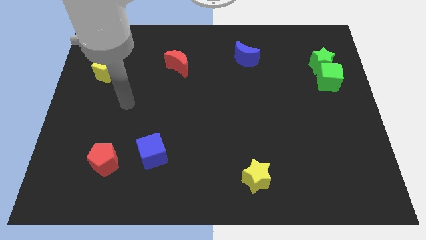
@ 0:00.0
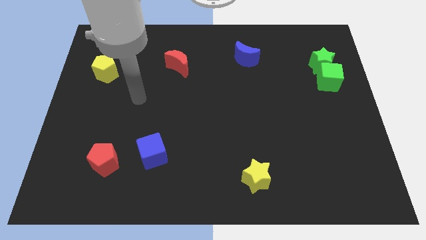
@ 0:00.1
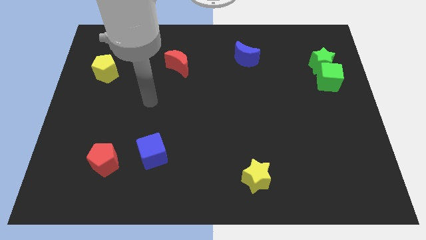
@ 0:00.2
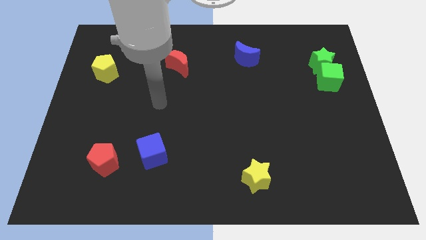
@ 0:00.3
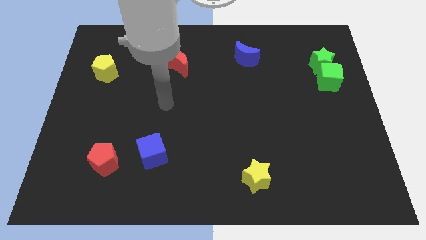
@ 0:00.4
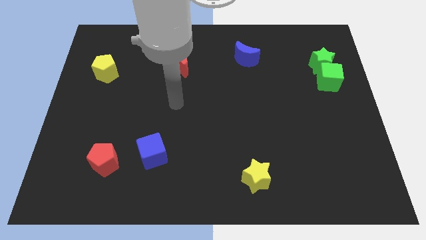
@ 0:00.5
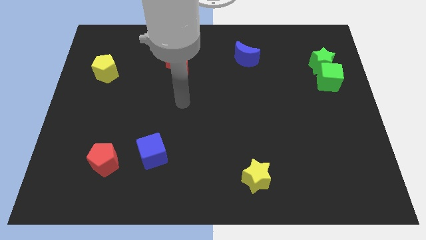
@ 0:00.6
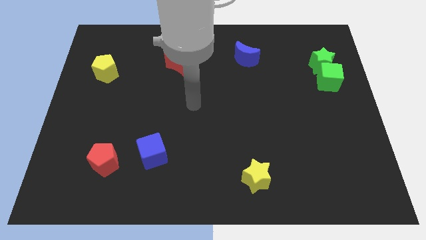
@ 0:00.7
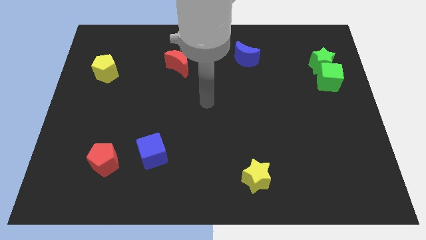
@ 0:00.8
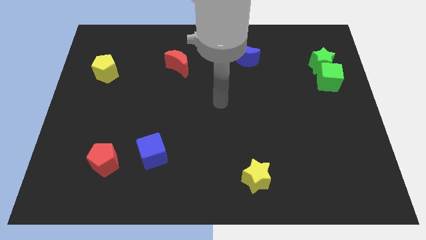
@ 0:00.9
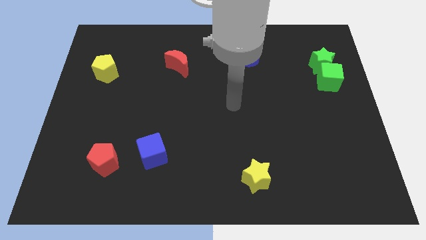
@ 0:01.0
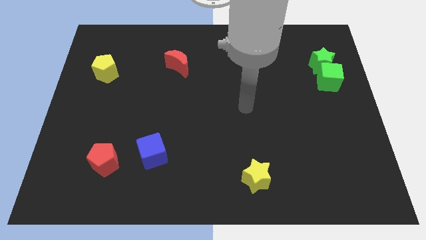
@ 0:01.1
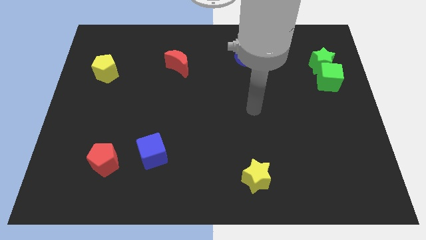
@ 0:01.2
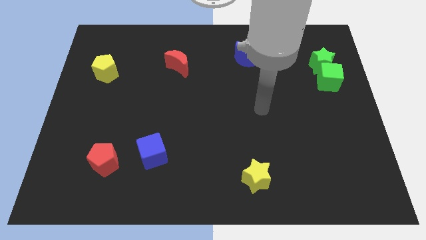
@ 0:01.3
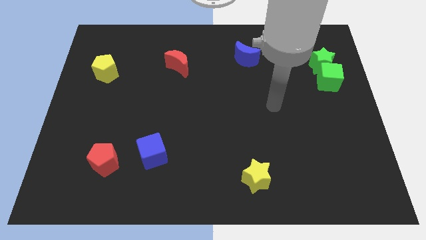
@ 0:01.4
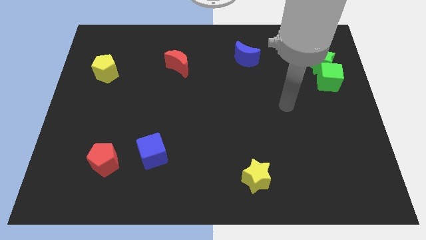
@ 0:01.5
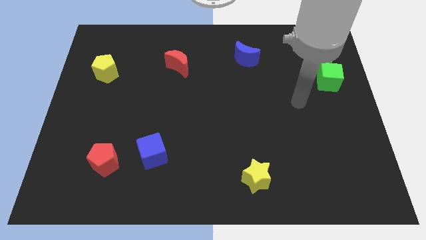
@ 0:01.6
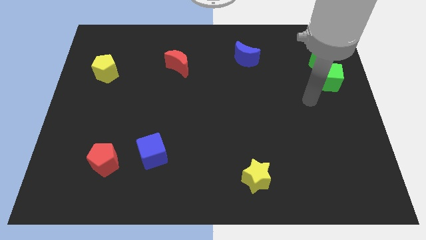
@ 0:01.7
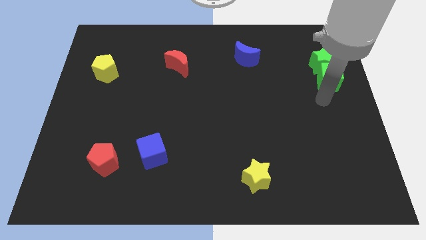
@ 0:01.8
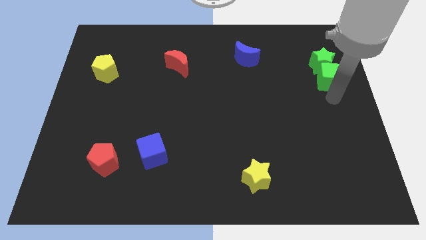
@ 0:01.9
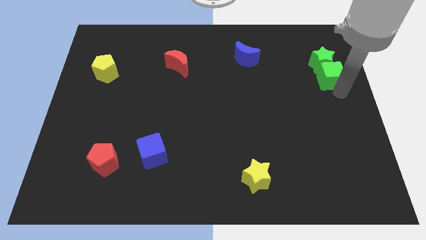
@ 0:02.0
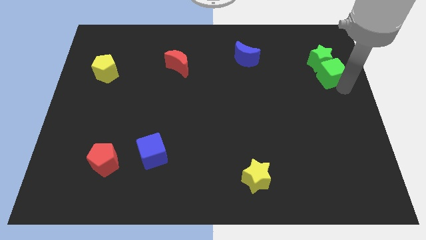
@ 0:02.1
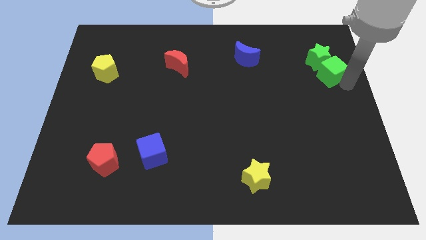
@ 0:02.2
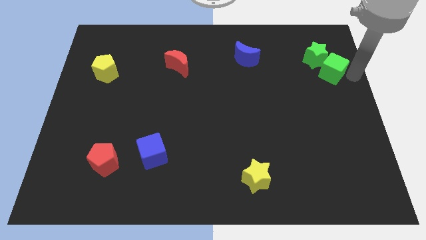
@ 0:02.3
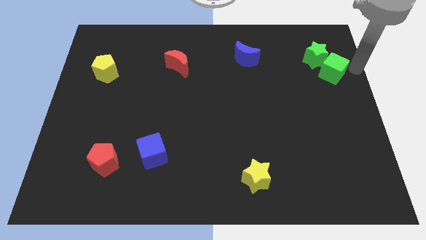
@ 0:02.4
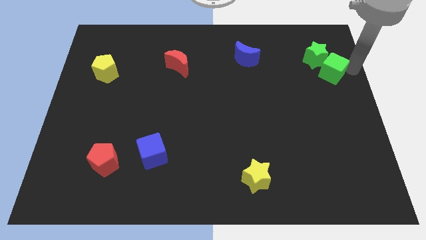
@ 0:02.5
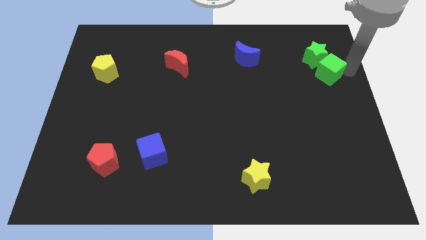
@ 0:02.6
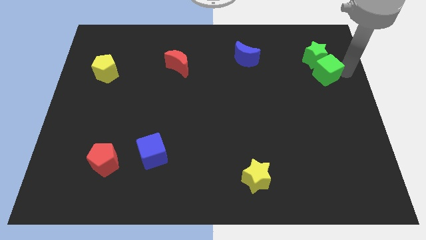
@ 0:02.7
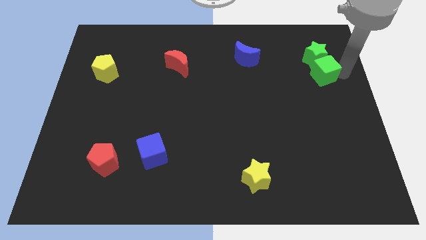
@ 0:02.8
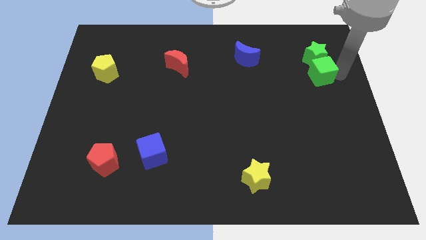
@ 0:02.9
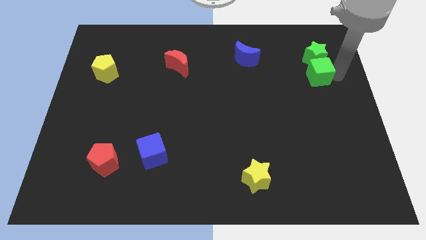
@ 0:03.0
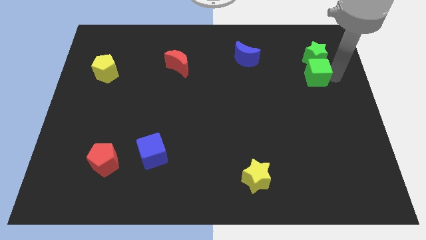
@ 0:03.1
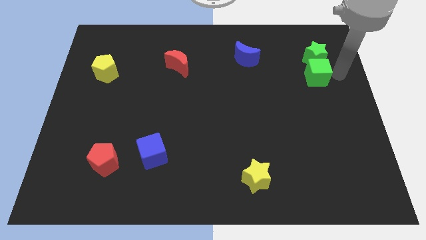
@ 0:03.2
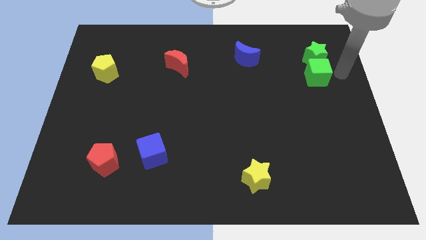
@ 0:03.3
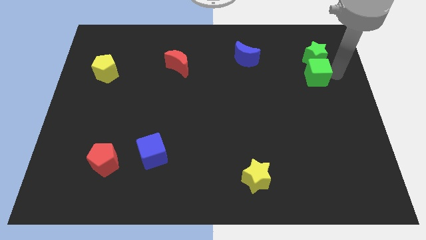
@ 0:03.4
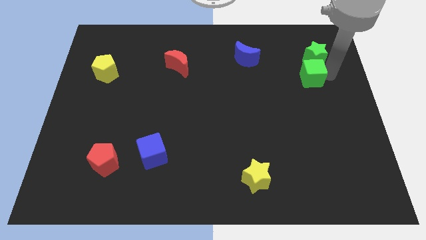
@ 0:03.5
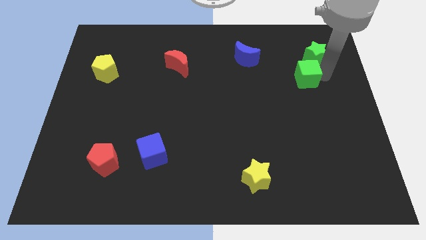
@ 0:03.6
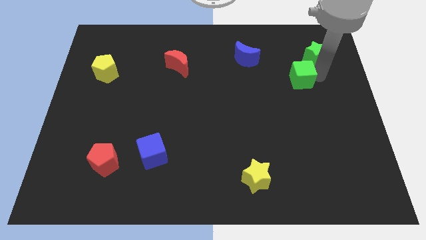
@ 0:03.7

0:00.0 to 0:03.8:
move the green cube left a bit

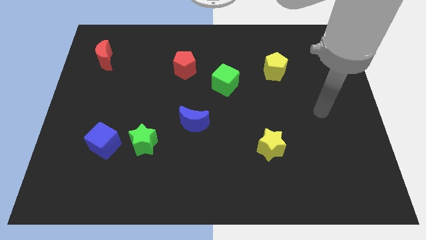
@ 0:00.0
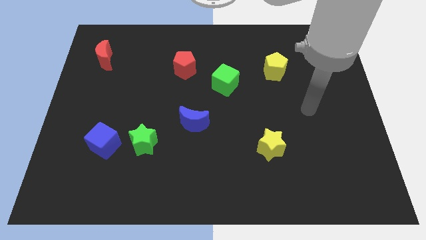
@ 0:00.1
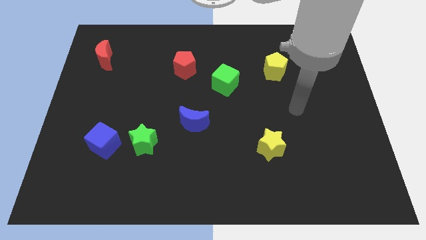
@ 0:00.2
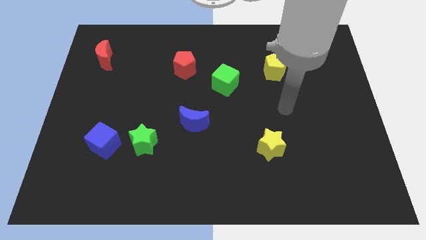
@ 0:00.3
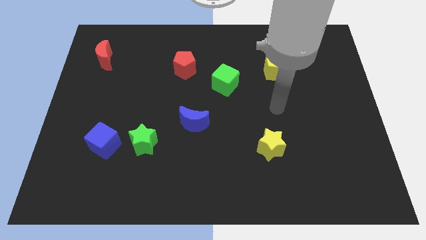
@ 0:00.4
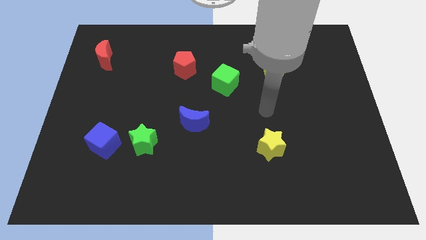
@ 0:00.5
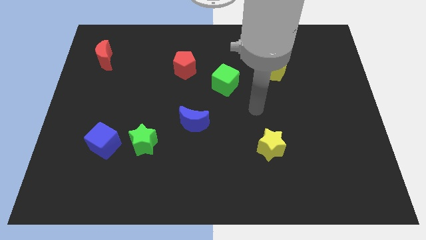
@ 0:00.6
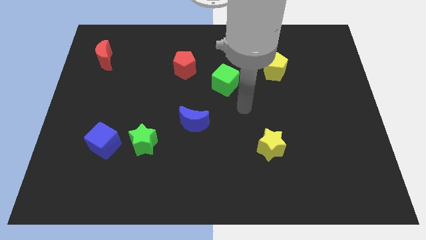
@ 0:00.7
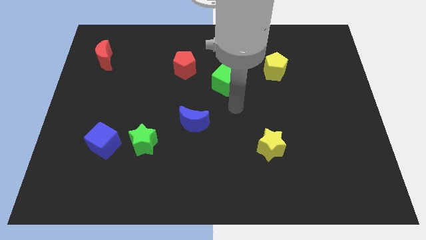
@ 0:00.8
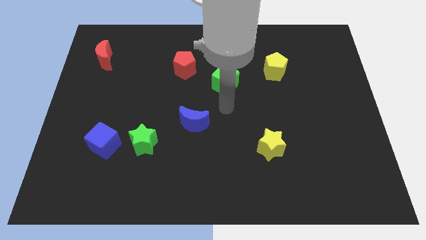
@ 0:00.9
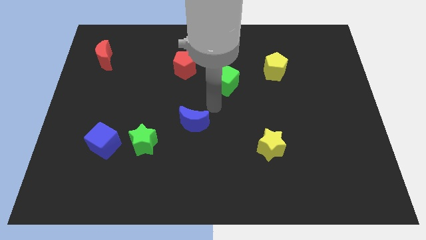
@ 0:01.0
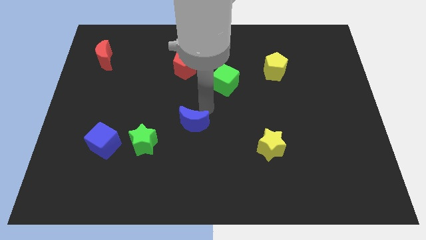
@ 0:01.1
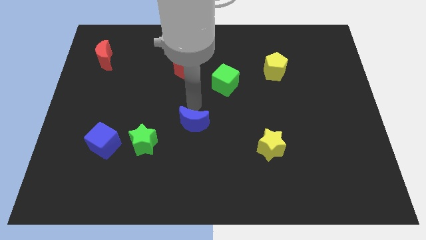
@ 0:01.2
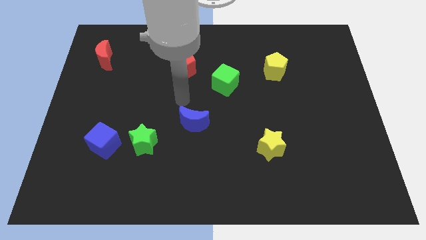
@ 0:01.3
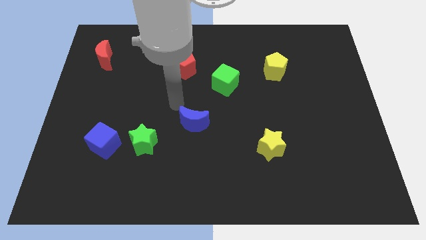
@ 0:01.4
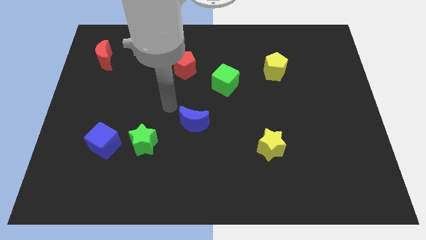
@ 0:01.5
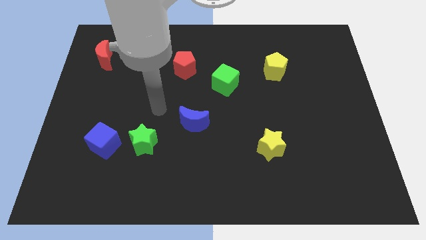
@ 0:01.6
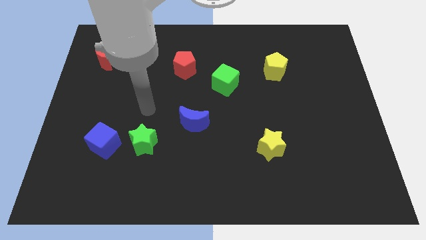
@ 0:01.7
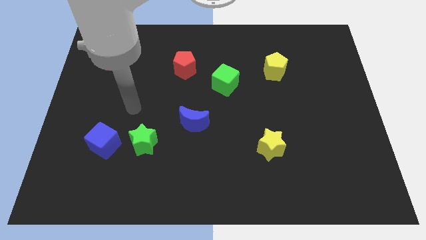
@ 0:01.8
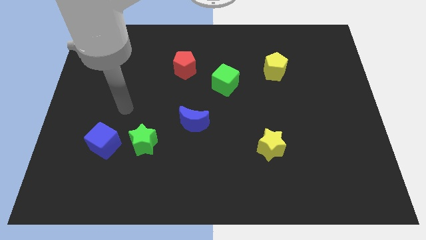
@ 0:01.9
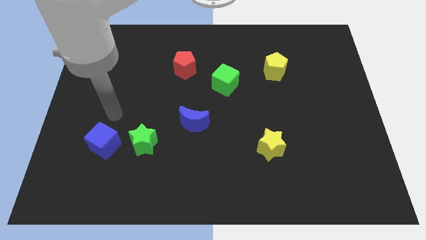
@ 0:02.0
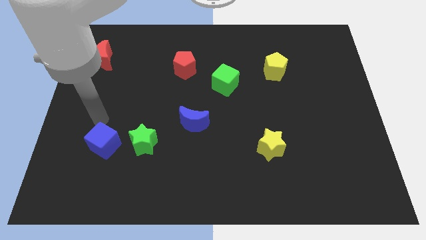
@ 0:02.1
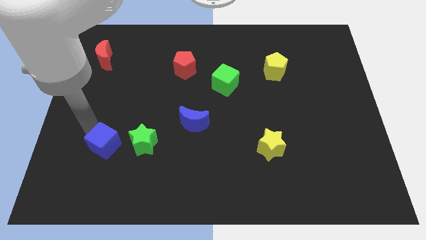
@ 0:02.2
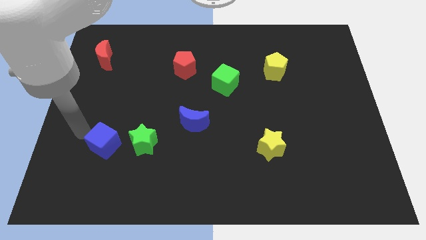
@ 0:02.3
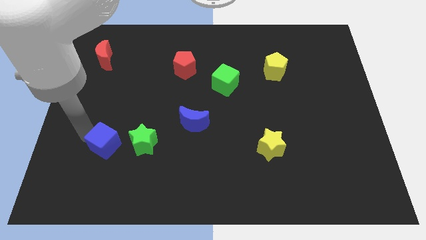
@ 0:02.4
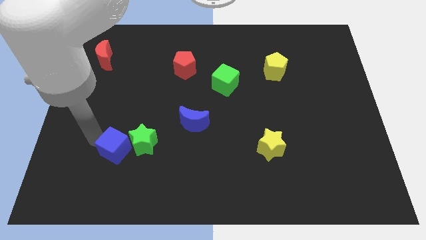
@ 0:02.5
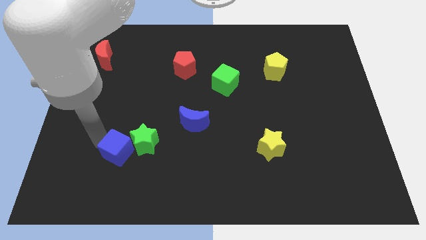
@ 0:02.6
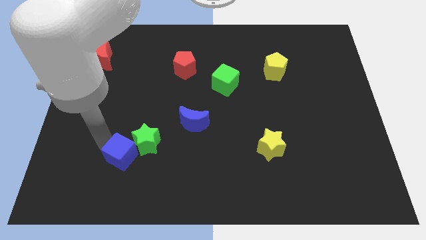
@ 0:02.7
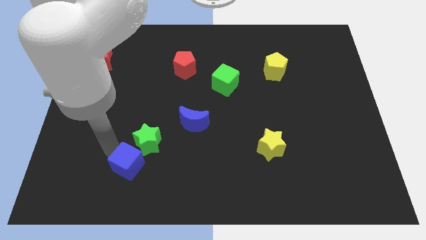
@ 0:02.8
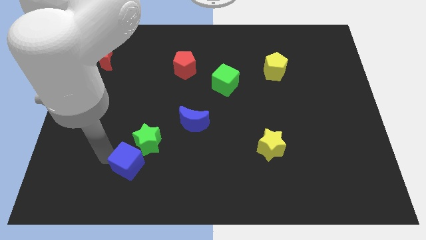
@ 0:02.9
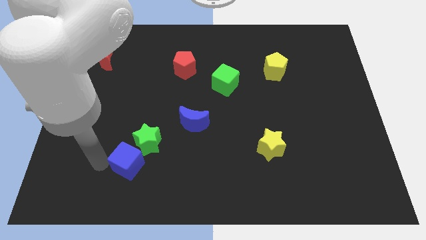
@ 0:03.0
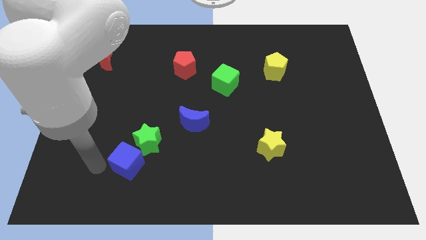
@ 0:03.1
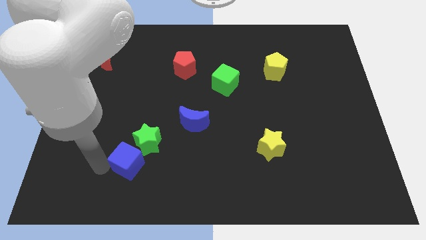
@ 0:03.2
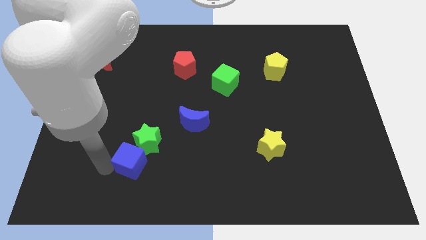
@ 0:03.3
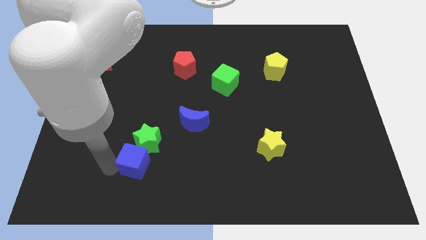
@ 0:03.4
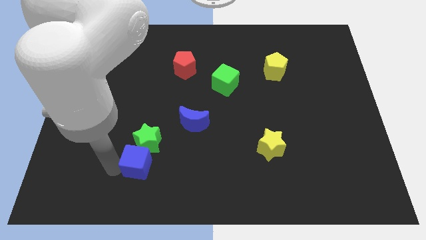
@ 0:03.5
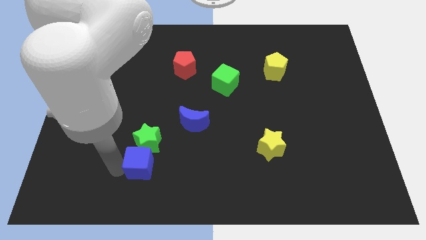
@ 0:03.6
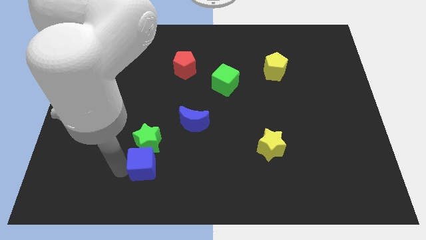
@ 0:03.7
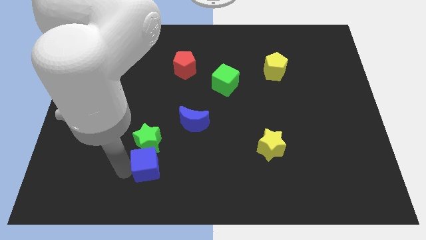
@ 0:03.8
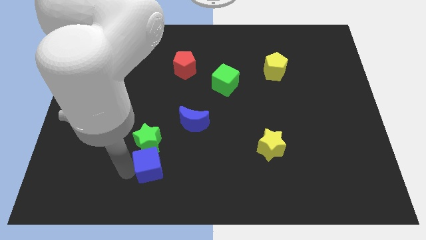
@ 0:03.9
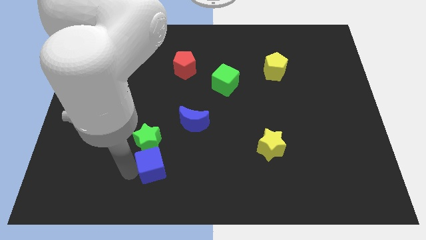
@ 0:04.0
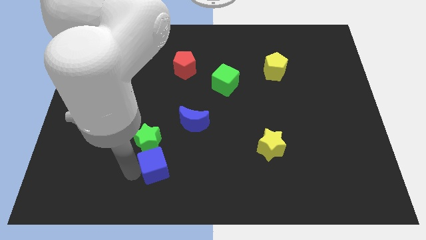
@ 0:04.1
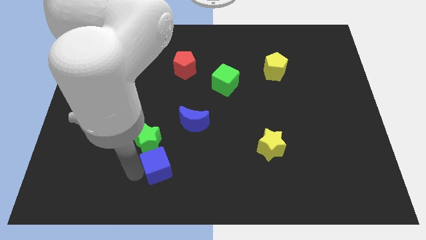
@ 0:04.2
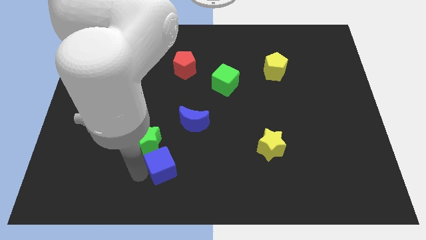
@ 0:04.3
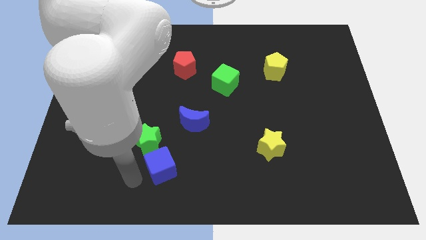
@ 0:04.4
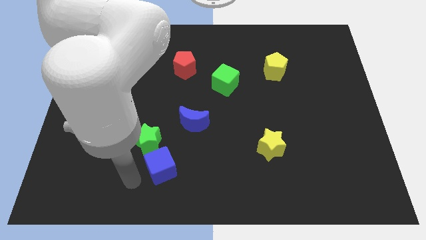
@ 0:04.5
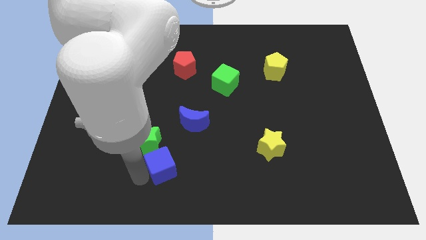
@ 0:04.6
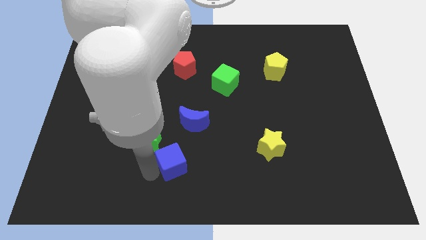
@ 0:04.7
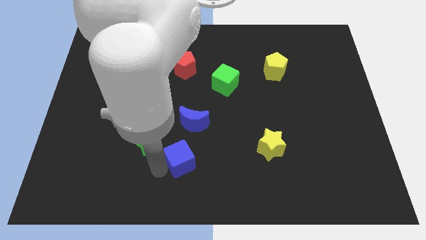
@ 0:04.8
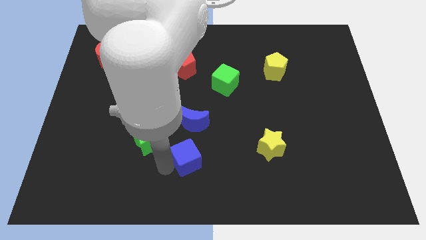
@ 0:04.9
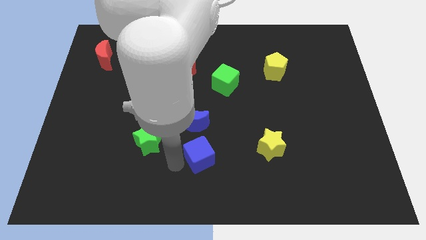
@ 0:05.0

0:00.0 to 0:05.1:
push the blue cube to the right
